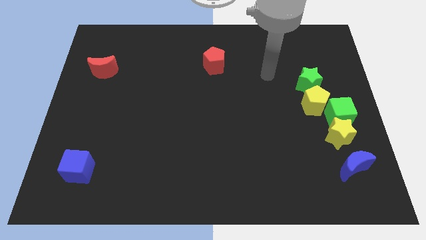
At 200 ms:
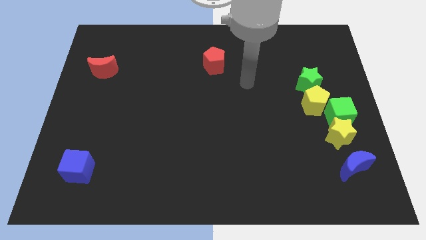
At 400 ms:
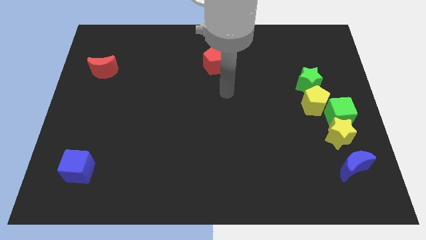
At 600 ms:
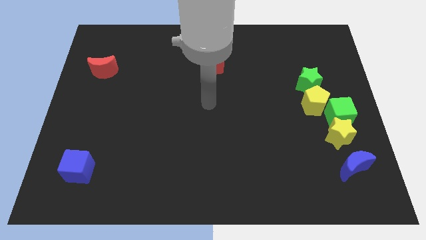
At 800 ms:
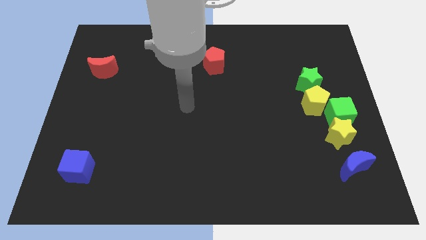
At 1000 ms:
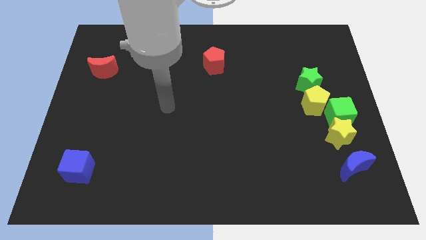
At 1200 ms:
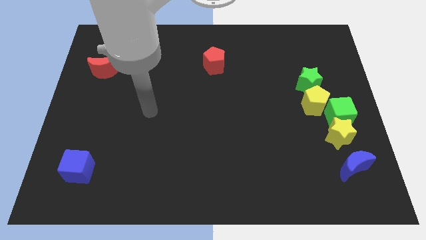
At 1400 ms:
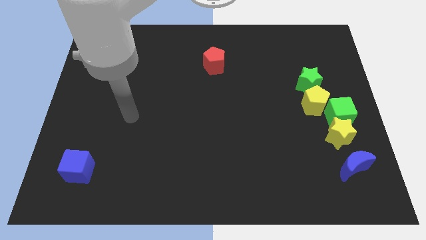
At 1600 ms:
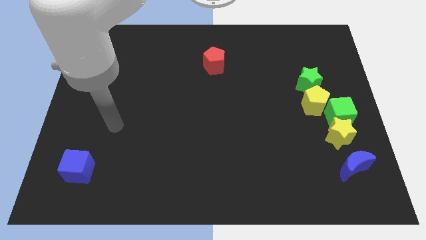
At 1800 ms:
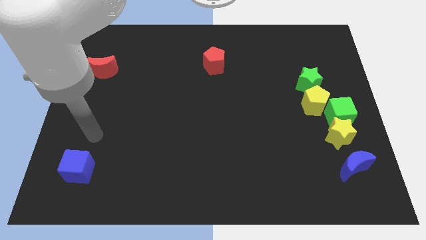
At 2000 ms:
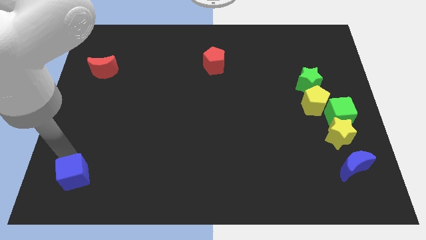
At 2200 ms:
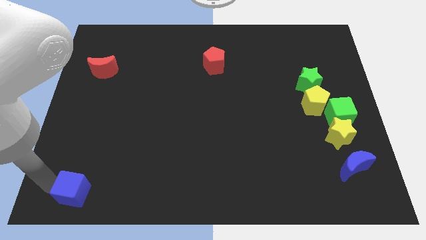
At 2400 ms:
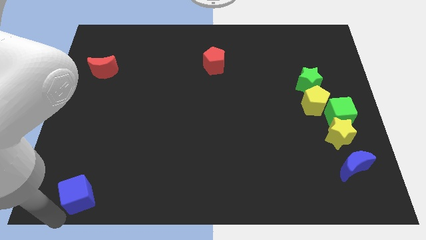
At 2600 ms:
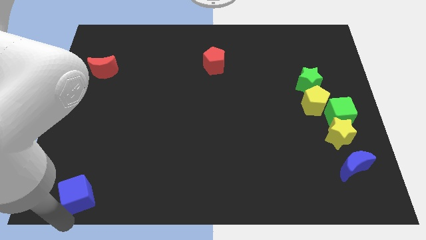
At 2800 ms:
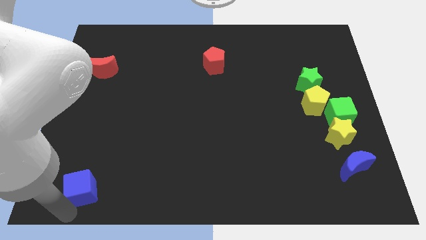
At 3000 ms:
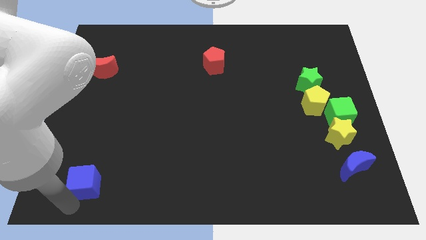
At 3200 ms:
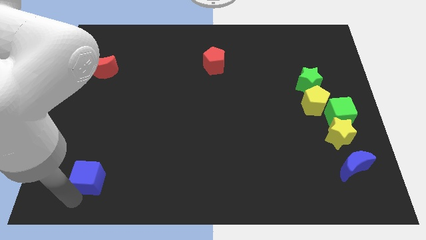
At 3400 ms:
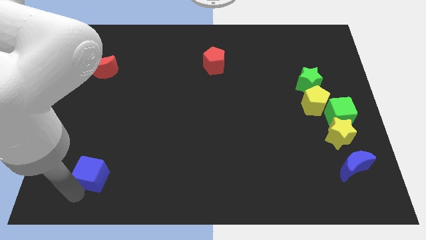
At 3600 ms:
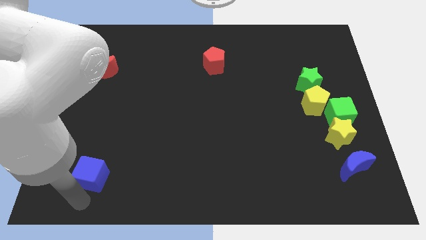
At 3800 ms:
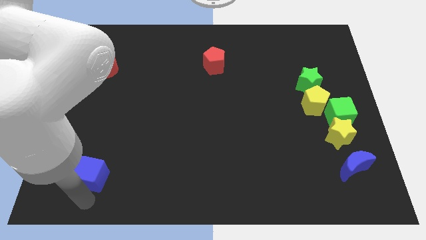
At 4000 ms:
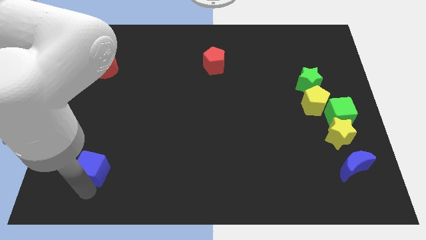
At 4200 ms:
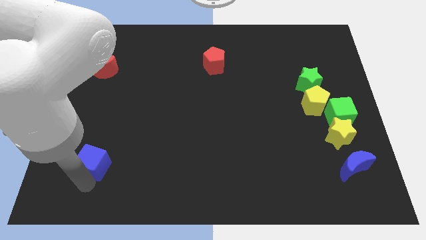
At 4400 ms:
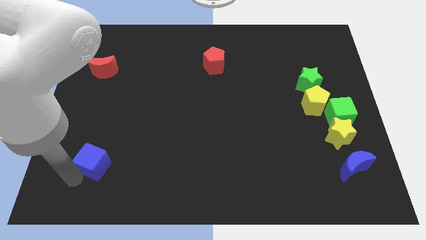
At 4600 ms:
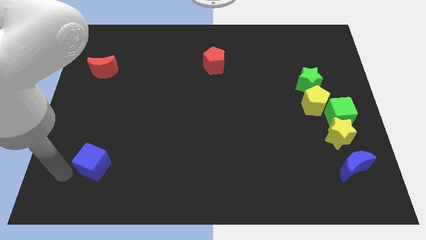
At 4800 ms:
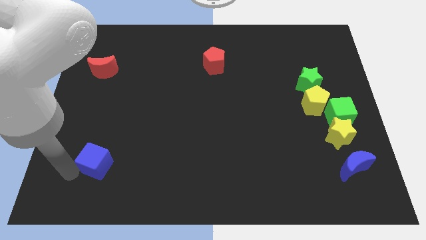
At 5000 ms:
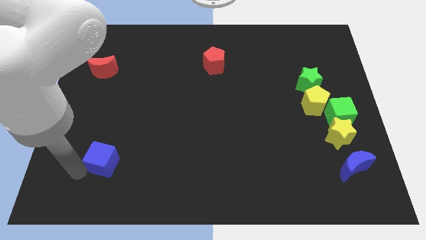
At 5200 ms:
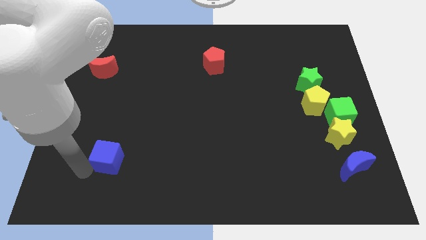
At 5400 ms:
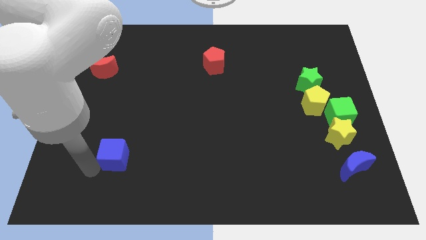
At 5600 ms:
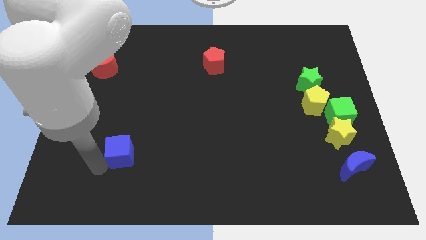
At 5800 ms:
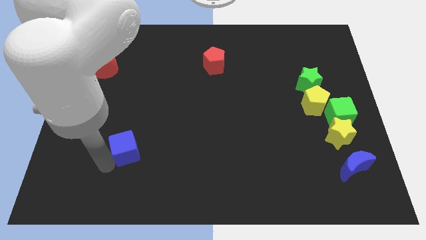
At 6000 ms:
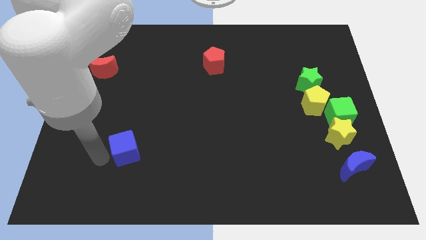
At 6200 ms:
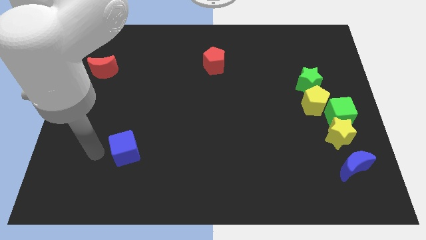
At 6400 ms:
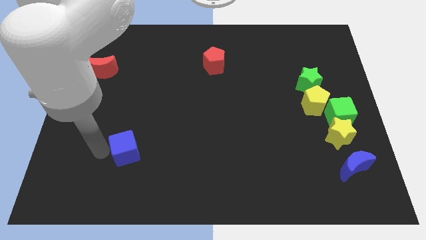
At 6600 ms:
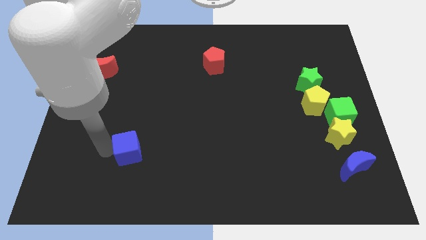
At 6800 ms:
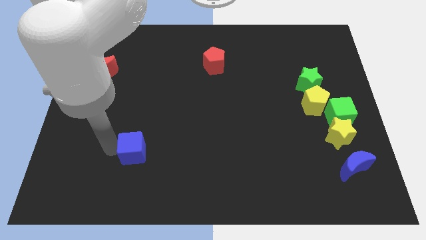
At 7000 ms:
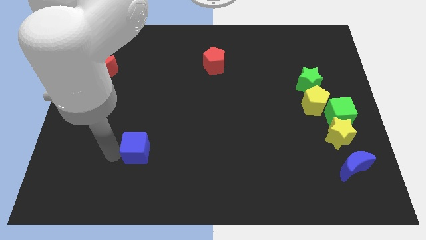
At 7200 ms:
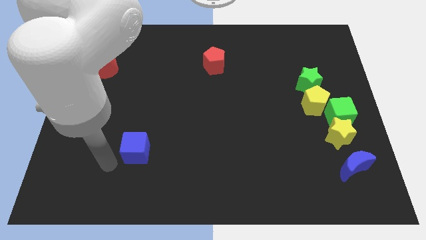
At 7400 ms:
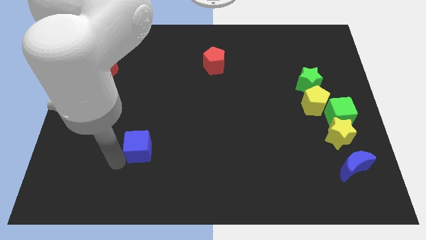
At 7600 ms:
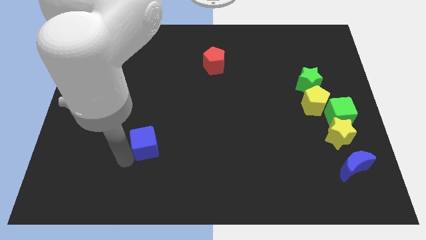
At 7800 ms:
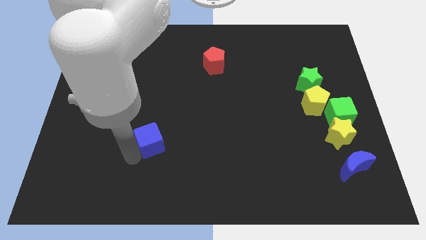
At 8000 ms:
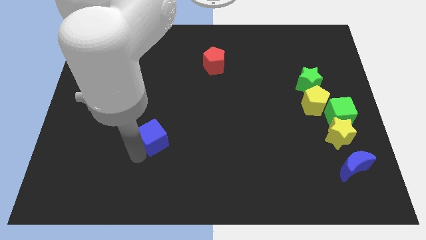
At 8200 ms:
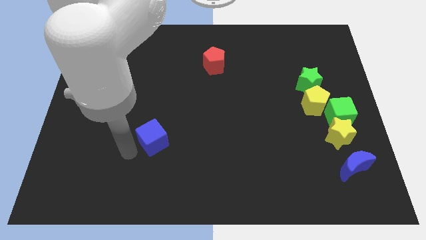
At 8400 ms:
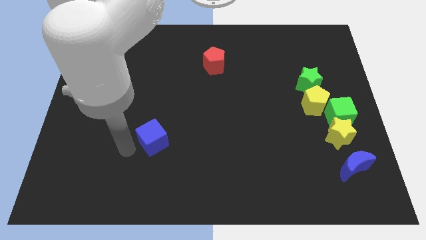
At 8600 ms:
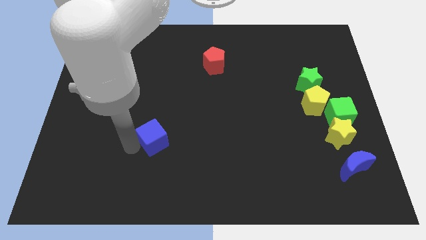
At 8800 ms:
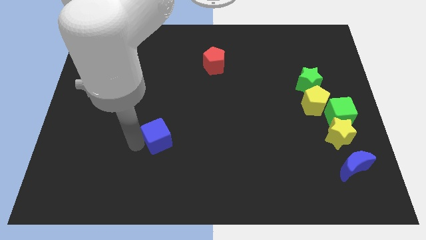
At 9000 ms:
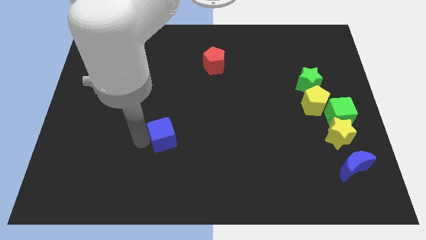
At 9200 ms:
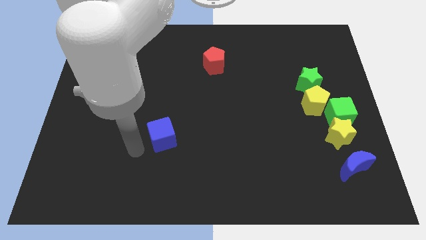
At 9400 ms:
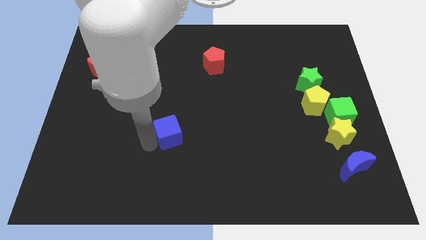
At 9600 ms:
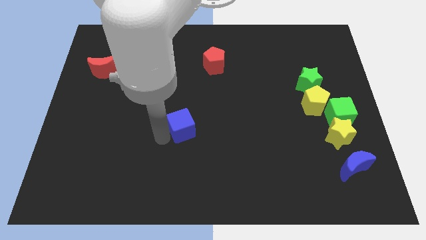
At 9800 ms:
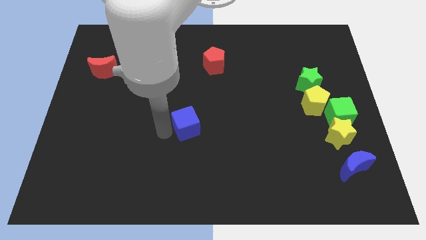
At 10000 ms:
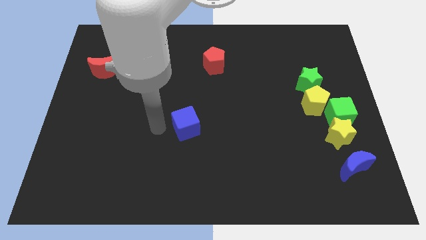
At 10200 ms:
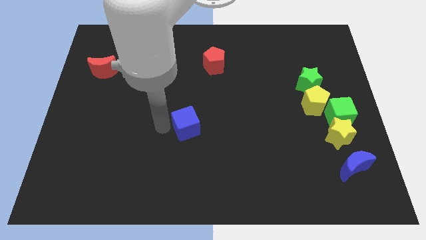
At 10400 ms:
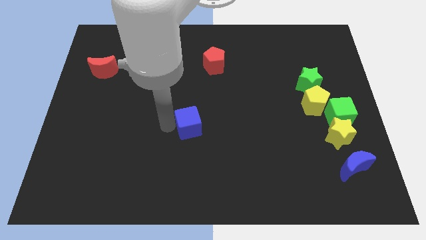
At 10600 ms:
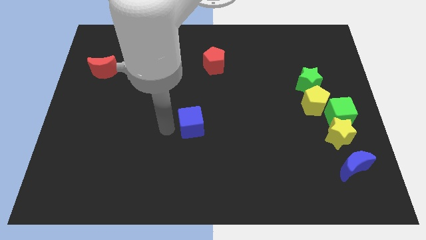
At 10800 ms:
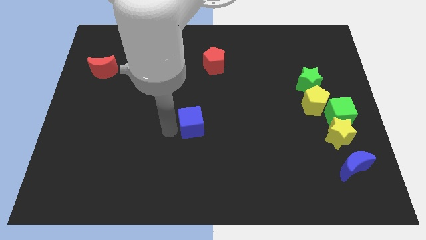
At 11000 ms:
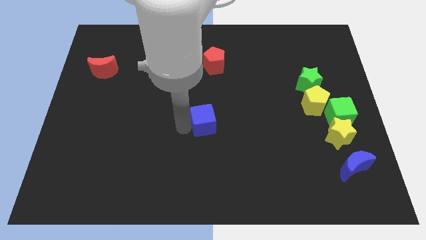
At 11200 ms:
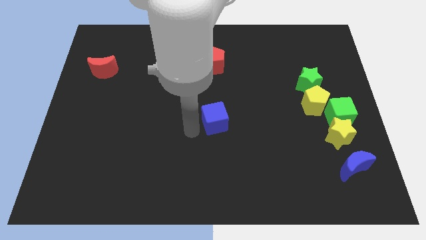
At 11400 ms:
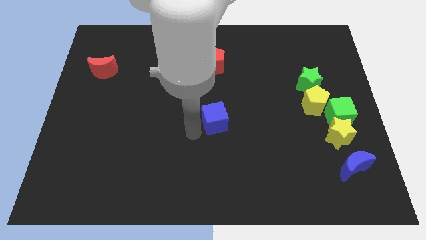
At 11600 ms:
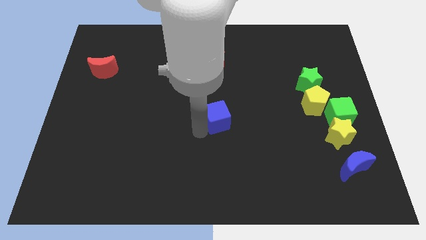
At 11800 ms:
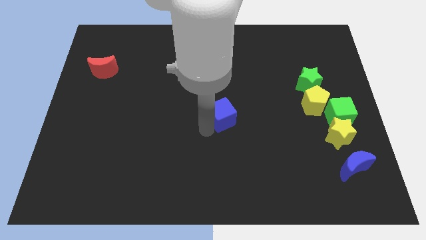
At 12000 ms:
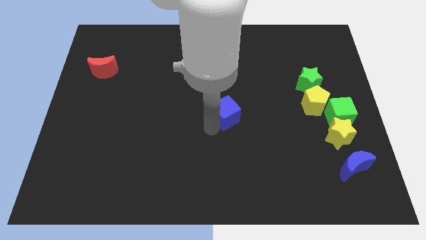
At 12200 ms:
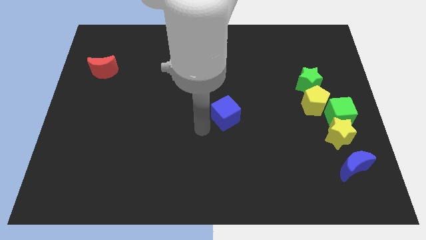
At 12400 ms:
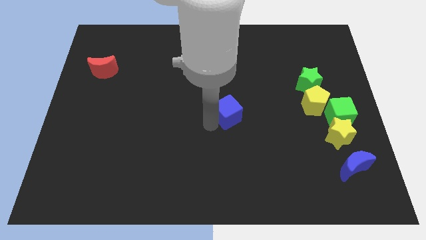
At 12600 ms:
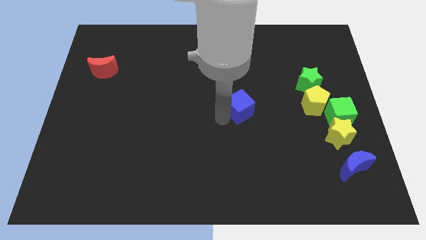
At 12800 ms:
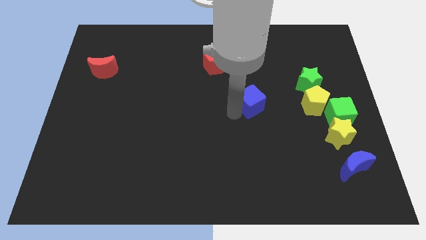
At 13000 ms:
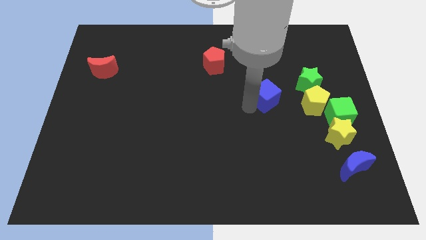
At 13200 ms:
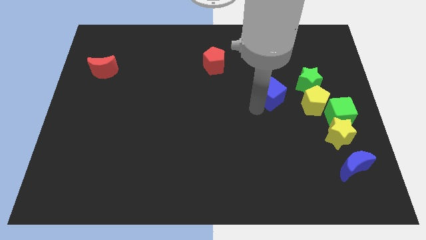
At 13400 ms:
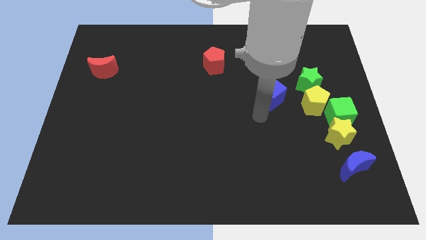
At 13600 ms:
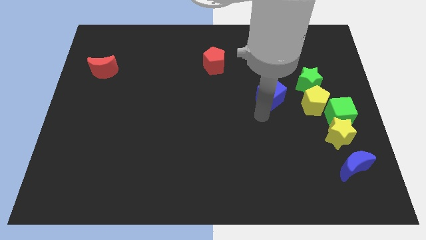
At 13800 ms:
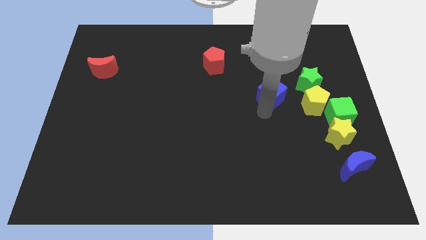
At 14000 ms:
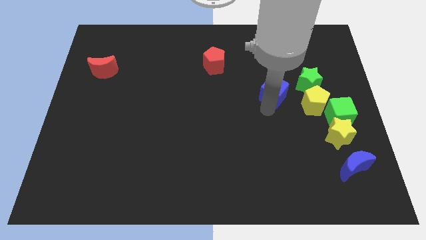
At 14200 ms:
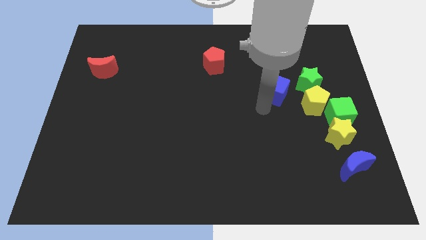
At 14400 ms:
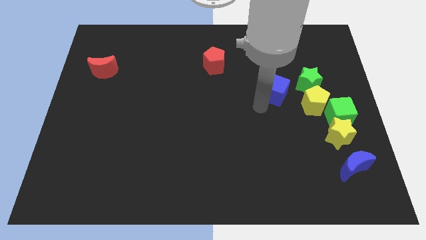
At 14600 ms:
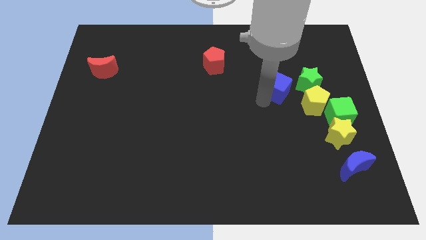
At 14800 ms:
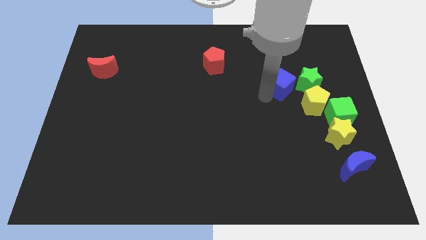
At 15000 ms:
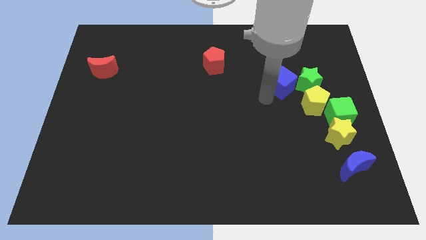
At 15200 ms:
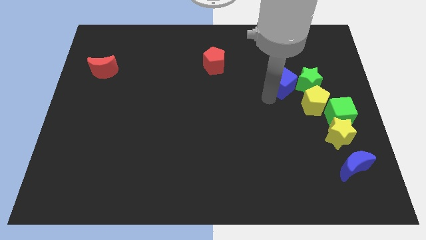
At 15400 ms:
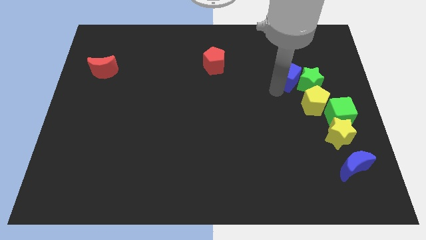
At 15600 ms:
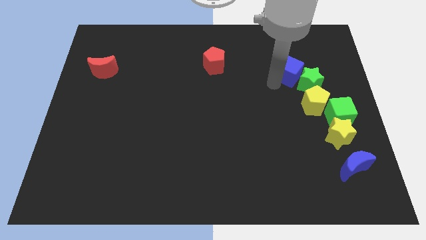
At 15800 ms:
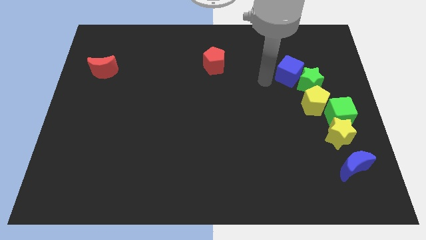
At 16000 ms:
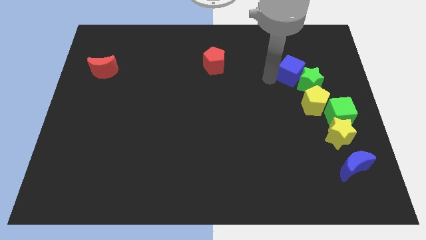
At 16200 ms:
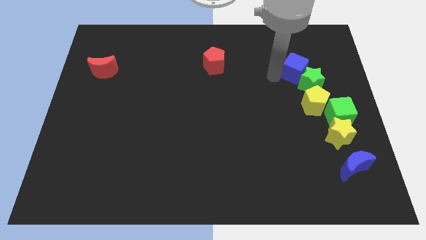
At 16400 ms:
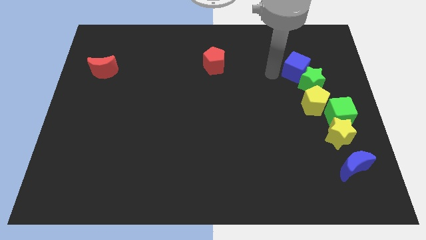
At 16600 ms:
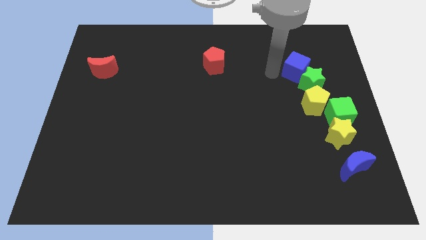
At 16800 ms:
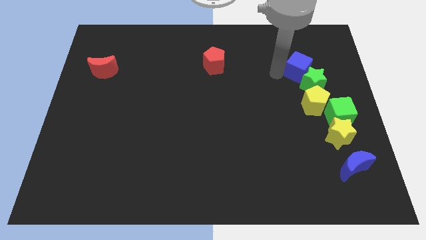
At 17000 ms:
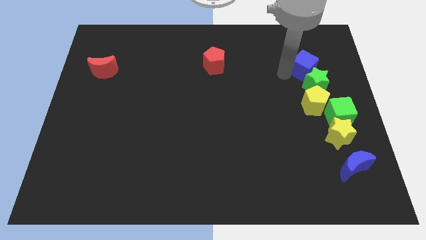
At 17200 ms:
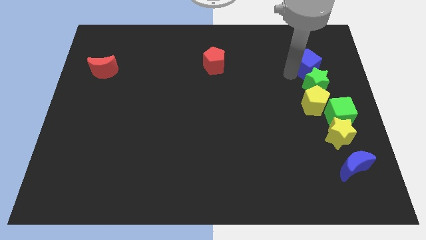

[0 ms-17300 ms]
put the blue cube diagonally up and to the right of the green star
